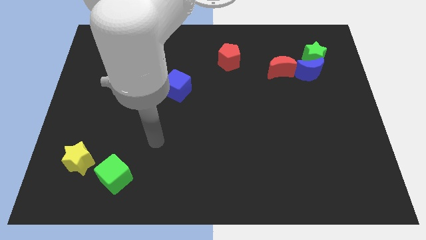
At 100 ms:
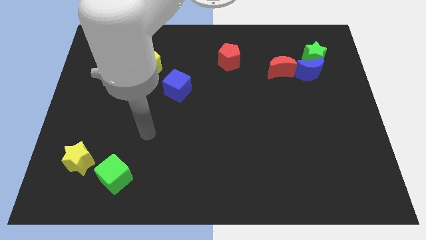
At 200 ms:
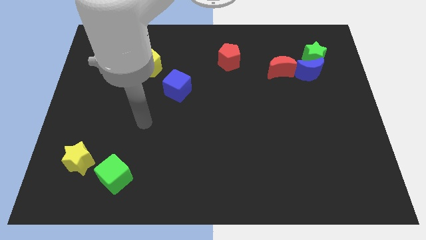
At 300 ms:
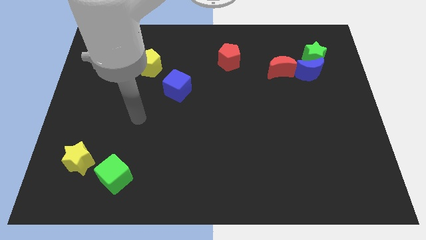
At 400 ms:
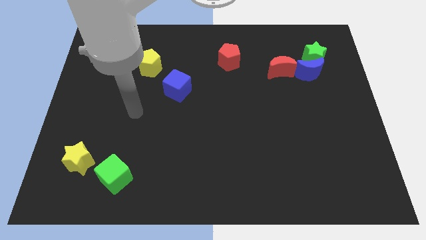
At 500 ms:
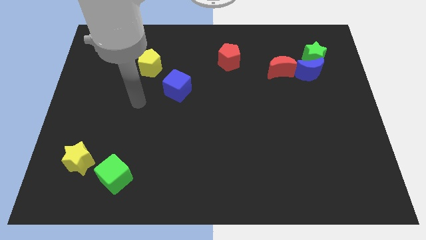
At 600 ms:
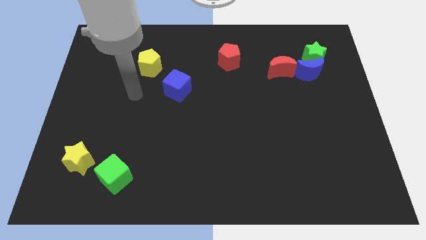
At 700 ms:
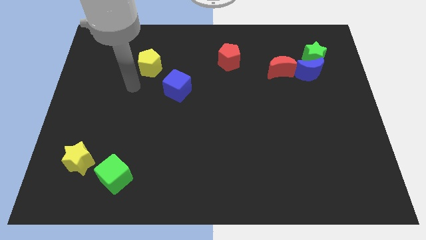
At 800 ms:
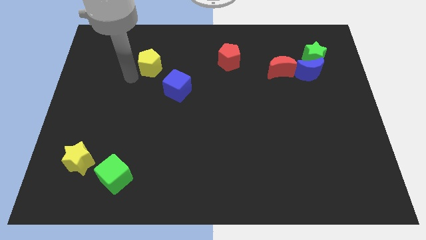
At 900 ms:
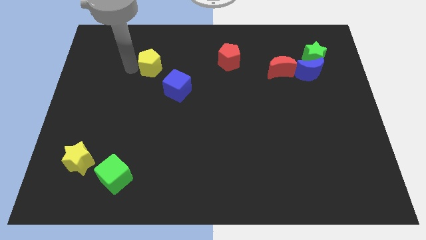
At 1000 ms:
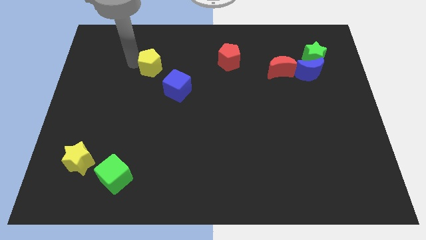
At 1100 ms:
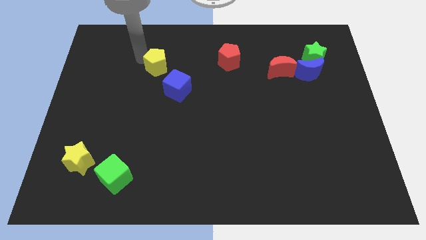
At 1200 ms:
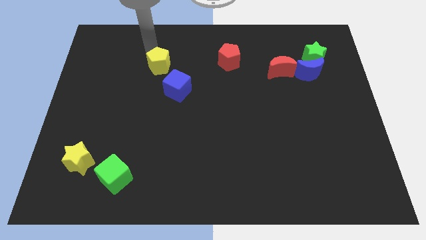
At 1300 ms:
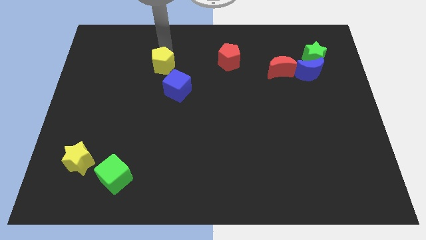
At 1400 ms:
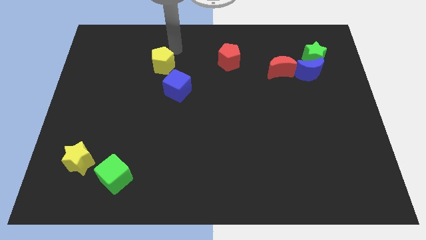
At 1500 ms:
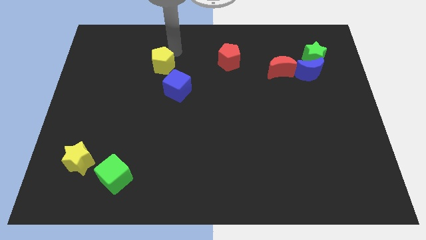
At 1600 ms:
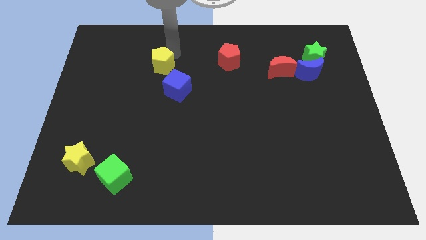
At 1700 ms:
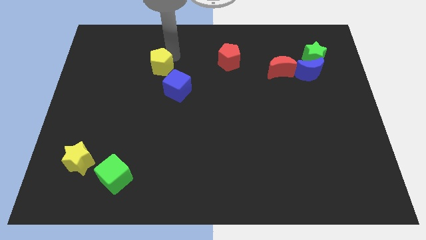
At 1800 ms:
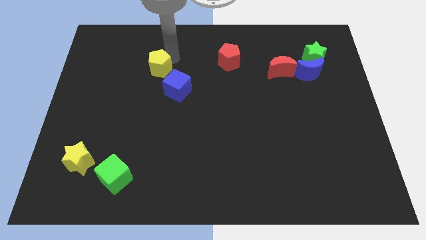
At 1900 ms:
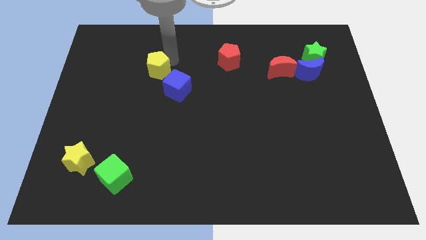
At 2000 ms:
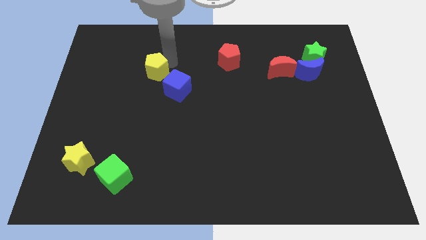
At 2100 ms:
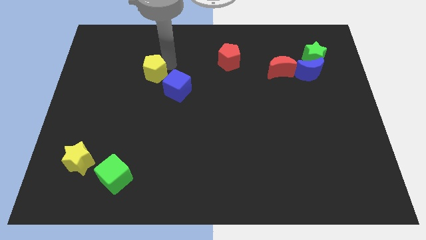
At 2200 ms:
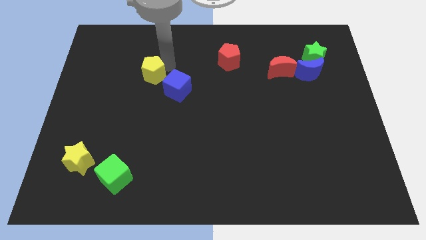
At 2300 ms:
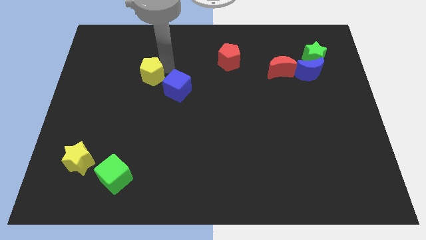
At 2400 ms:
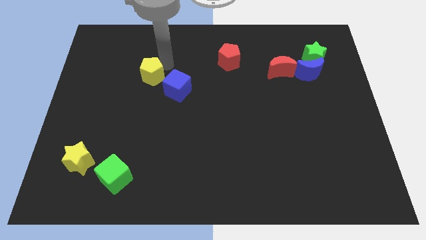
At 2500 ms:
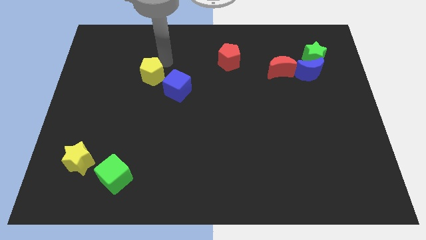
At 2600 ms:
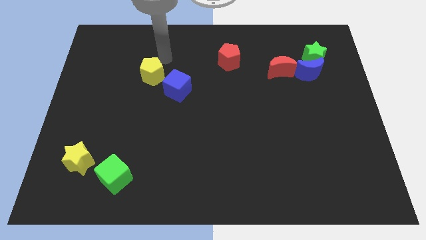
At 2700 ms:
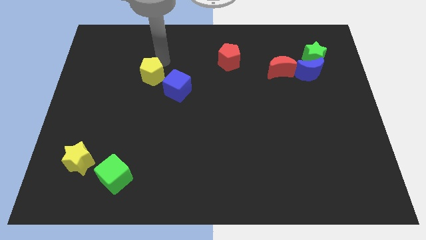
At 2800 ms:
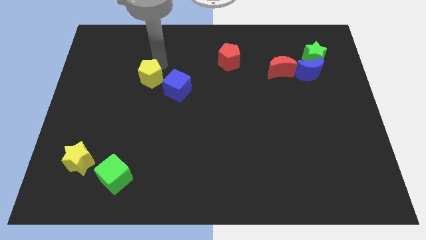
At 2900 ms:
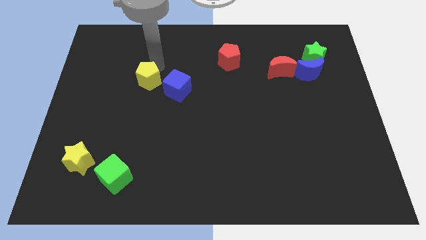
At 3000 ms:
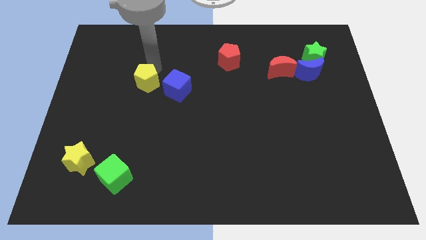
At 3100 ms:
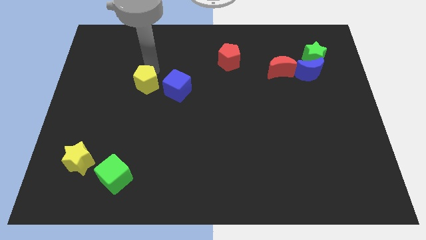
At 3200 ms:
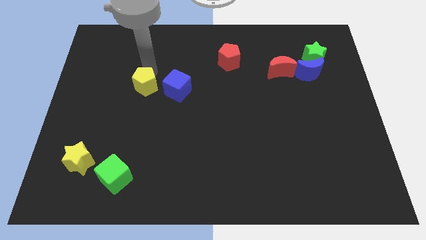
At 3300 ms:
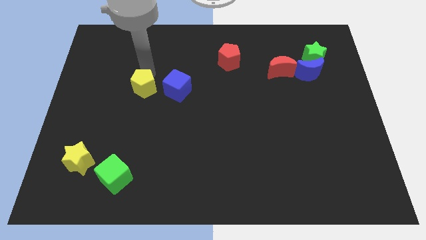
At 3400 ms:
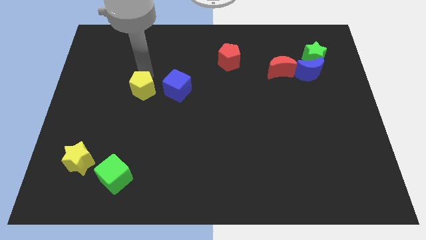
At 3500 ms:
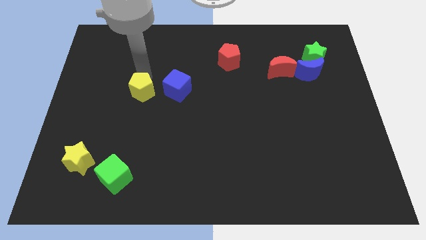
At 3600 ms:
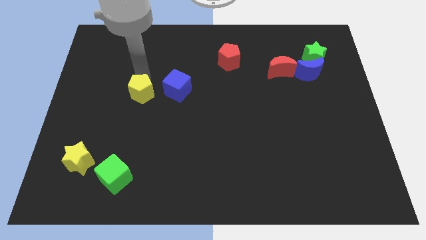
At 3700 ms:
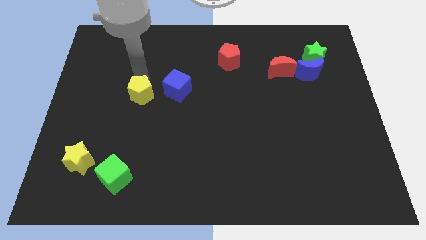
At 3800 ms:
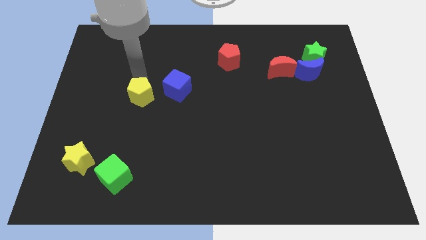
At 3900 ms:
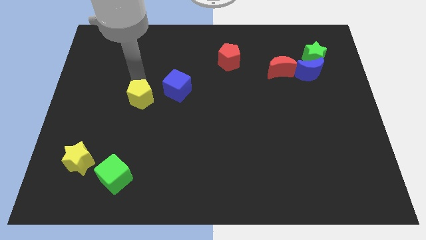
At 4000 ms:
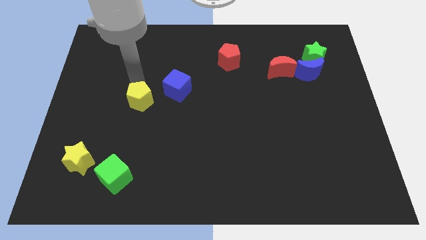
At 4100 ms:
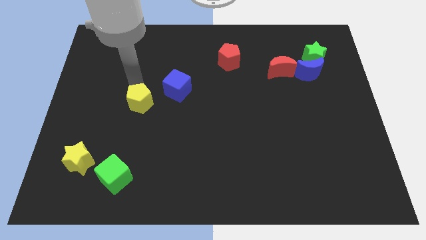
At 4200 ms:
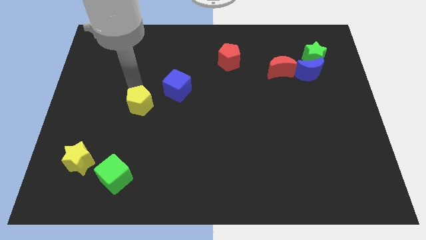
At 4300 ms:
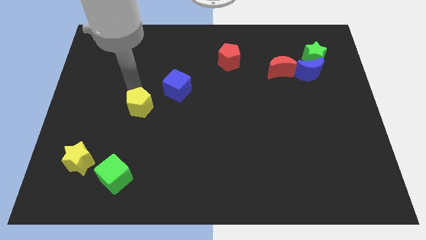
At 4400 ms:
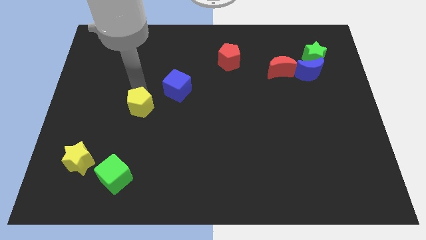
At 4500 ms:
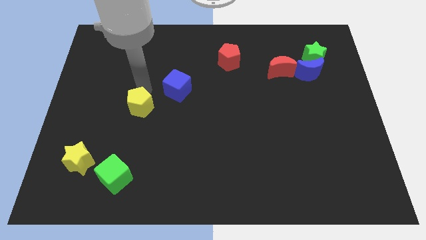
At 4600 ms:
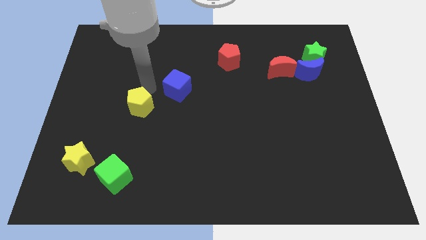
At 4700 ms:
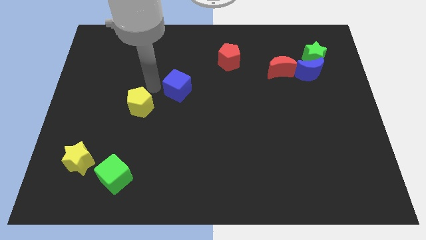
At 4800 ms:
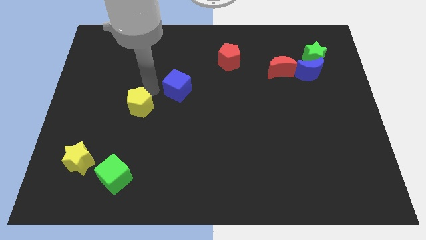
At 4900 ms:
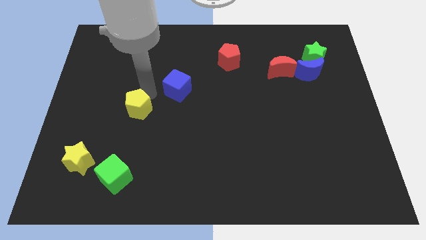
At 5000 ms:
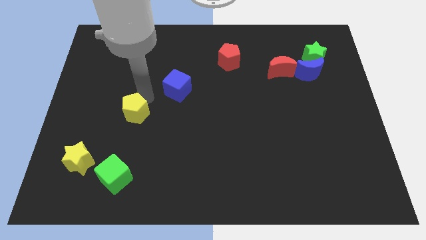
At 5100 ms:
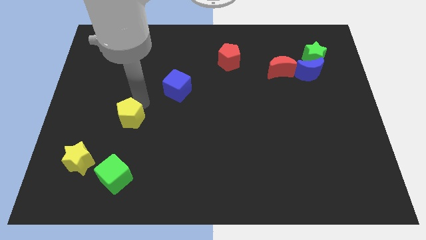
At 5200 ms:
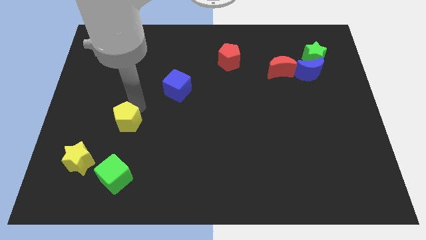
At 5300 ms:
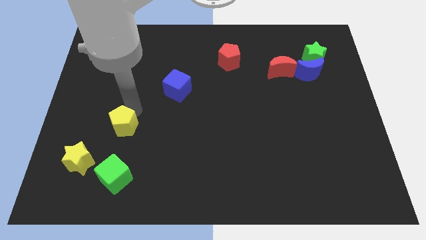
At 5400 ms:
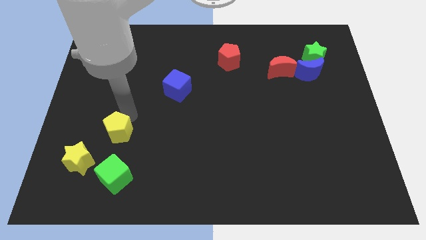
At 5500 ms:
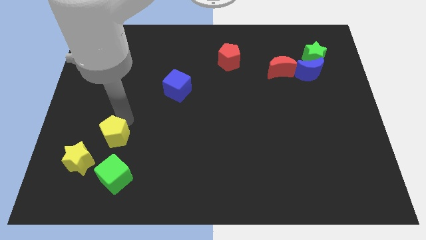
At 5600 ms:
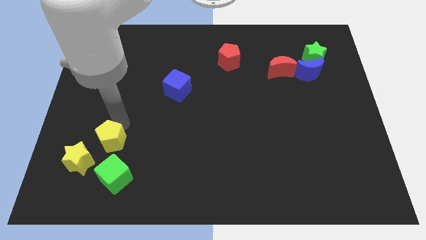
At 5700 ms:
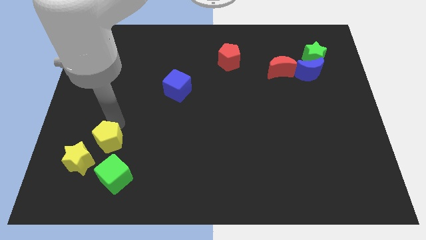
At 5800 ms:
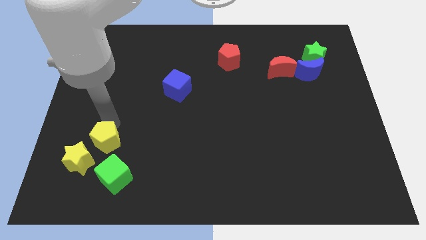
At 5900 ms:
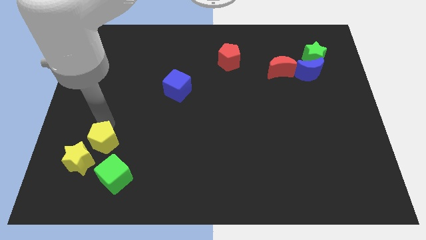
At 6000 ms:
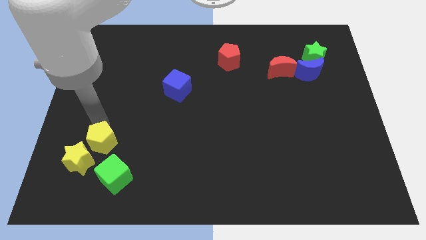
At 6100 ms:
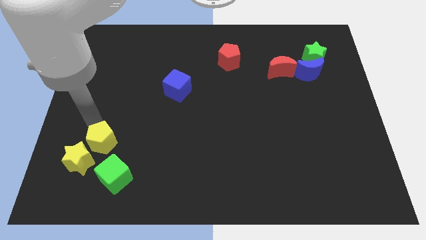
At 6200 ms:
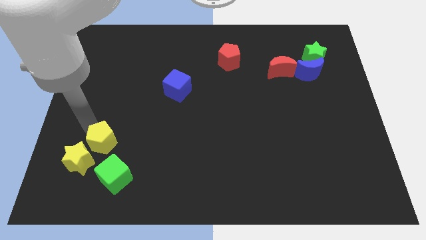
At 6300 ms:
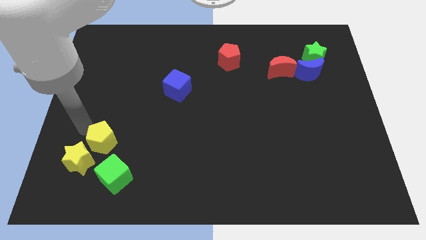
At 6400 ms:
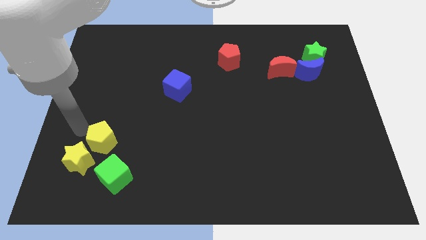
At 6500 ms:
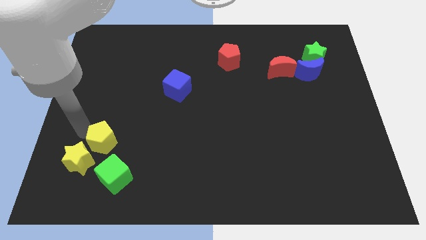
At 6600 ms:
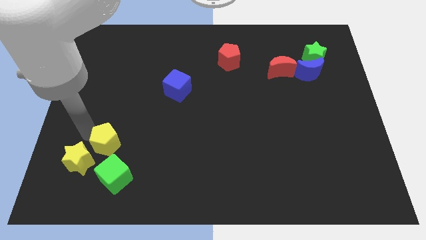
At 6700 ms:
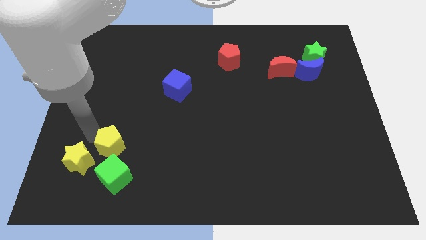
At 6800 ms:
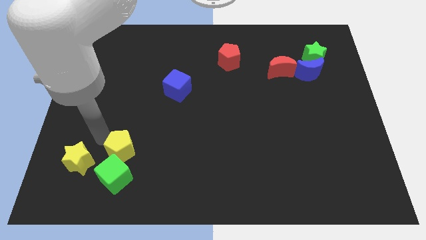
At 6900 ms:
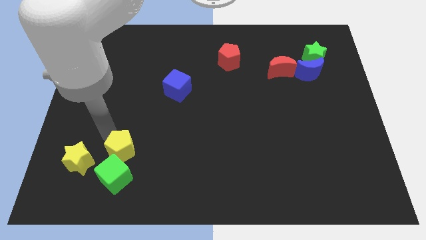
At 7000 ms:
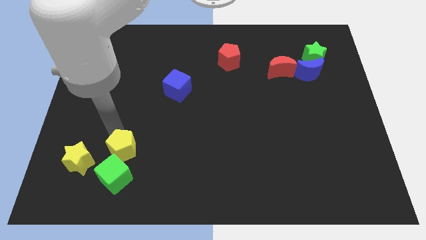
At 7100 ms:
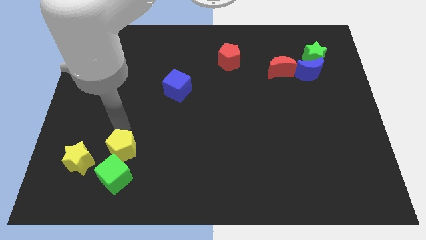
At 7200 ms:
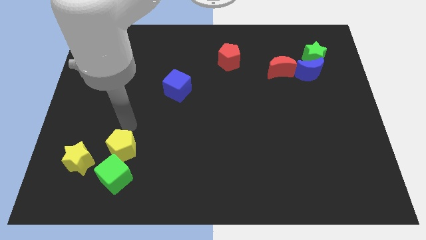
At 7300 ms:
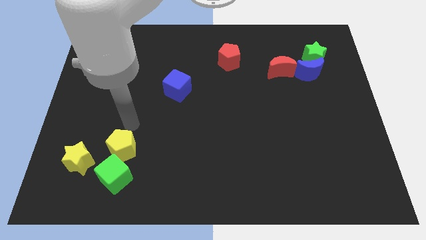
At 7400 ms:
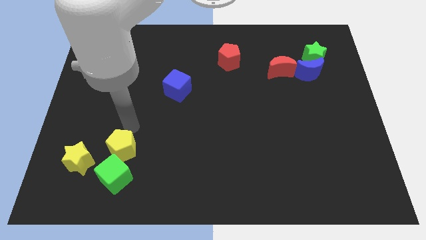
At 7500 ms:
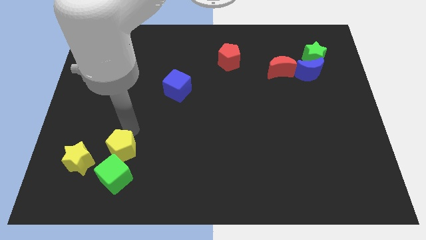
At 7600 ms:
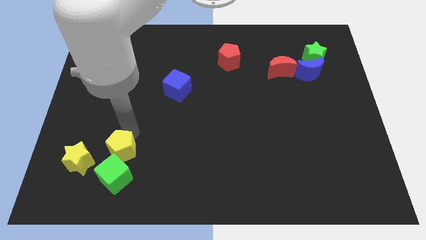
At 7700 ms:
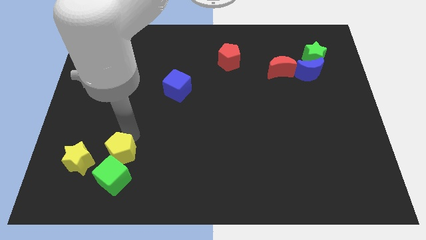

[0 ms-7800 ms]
push the yellow pentagon towards the green cube

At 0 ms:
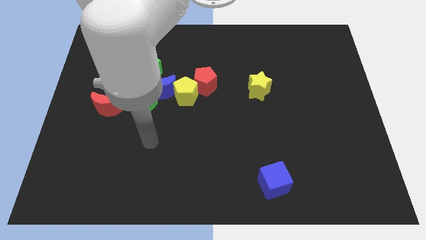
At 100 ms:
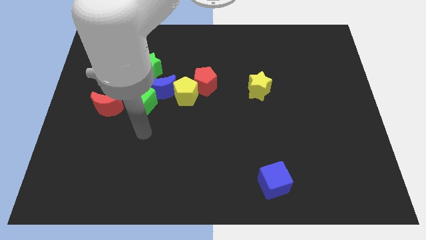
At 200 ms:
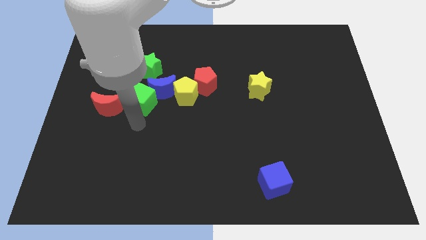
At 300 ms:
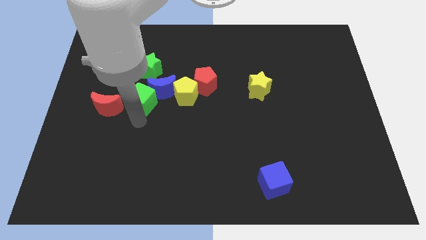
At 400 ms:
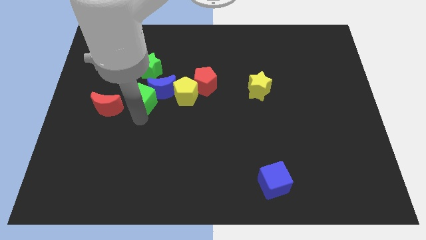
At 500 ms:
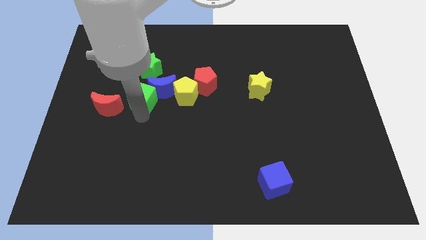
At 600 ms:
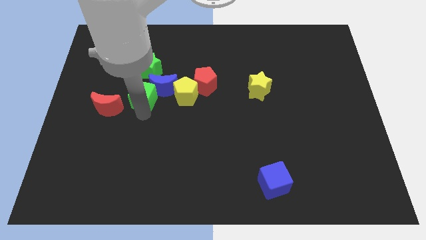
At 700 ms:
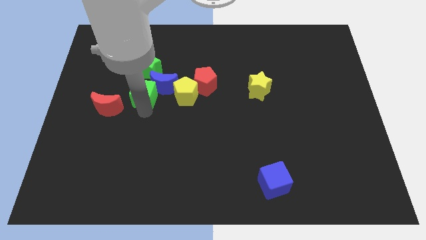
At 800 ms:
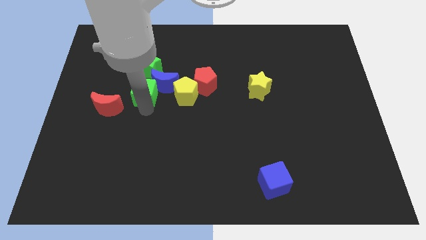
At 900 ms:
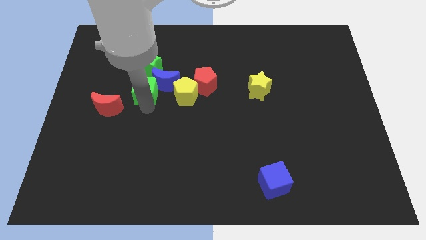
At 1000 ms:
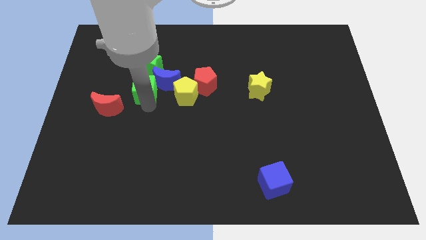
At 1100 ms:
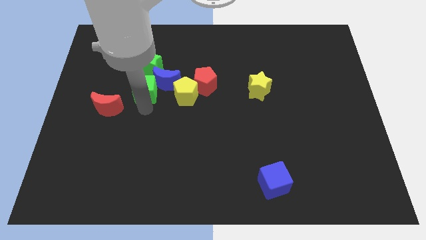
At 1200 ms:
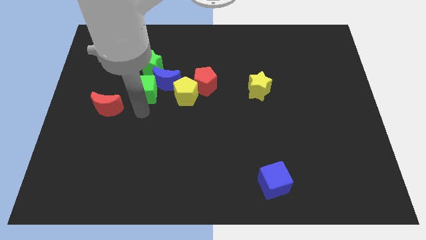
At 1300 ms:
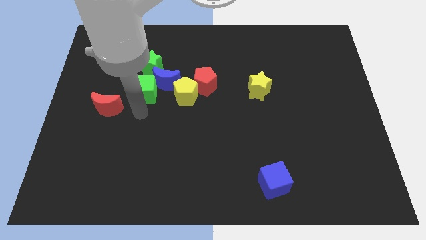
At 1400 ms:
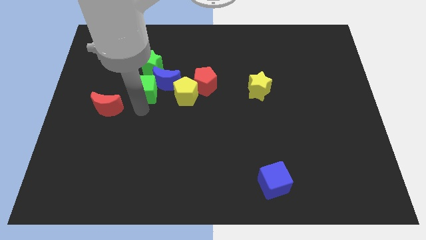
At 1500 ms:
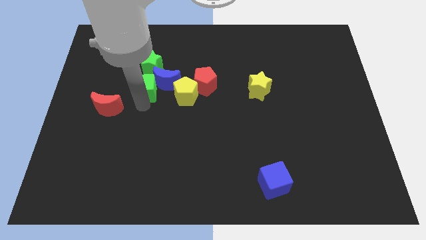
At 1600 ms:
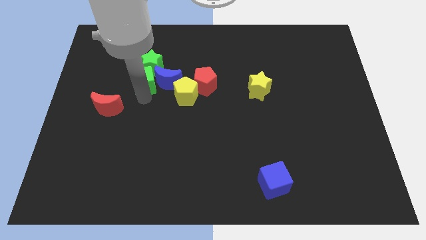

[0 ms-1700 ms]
move the green cube next to the green star
